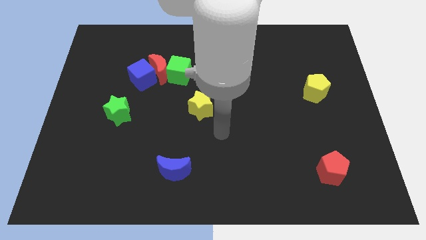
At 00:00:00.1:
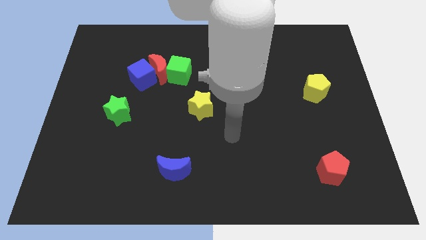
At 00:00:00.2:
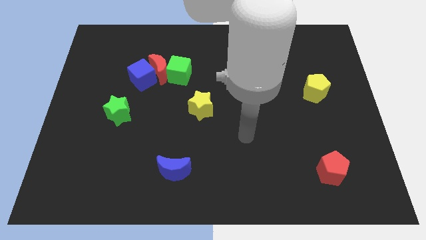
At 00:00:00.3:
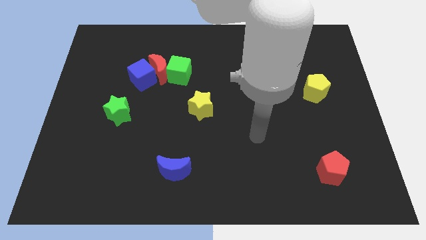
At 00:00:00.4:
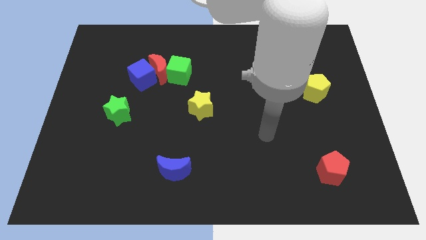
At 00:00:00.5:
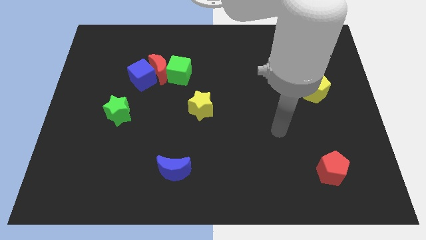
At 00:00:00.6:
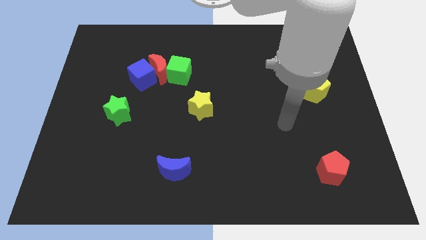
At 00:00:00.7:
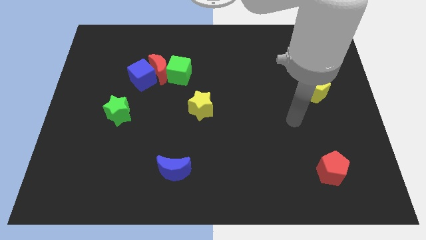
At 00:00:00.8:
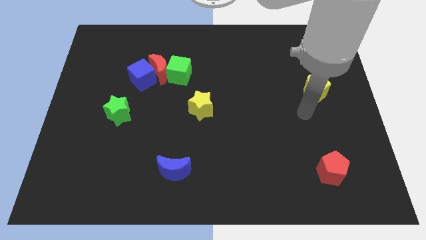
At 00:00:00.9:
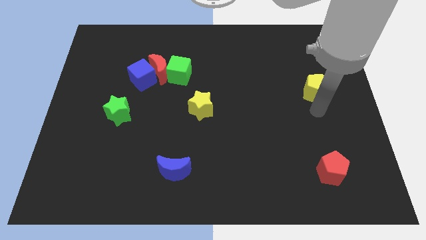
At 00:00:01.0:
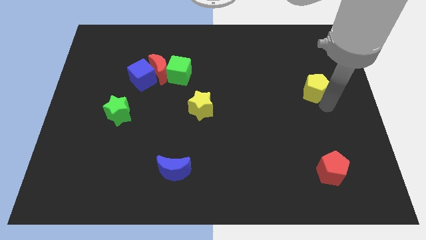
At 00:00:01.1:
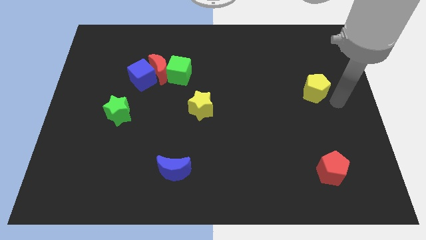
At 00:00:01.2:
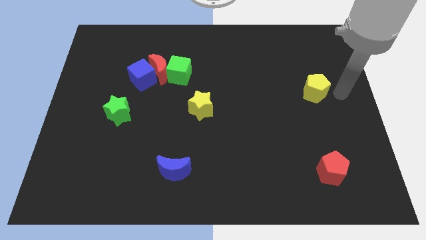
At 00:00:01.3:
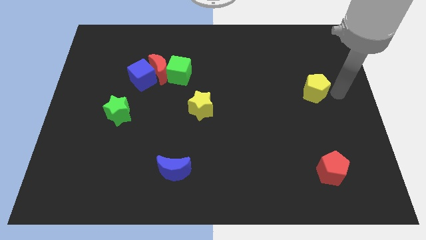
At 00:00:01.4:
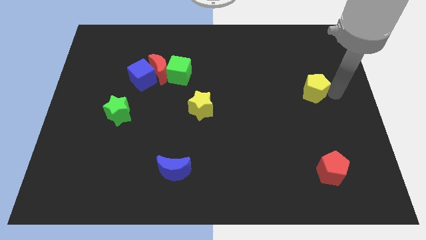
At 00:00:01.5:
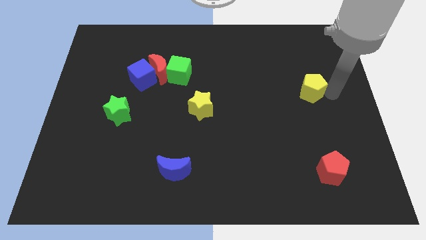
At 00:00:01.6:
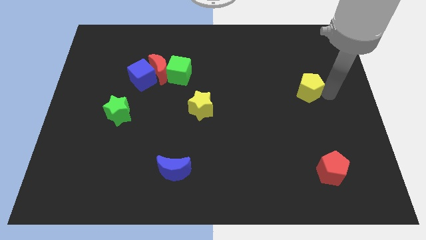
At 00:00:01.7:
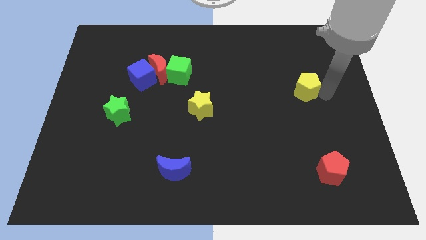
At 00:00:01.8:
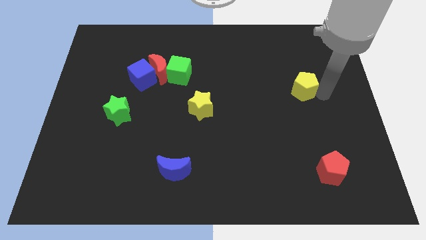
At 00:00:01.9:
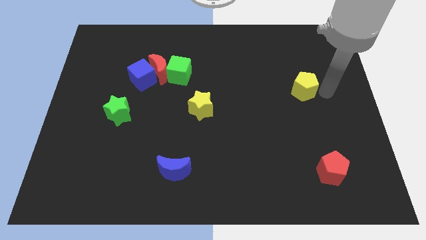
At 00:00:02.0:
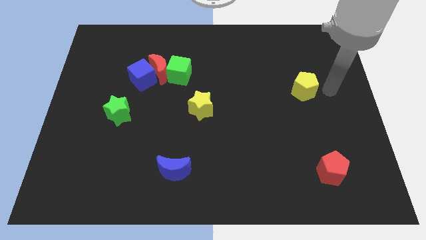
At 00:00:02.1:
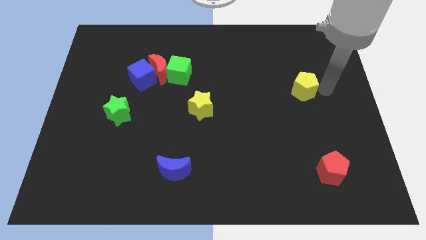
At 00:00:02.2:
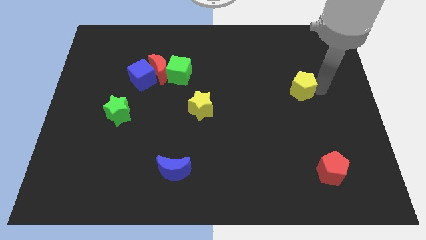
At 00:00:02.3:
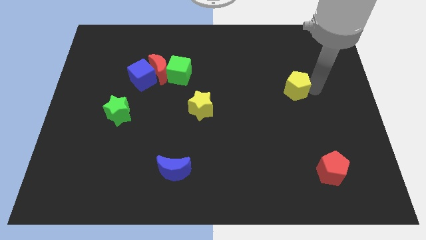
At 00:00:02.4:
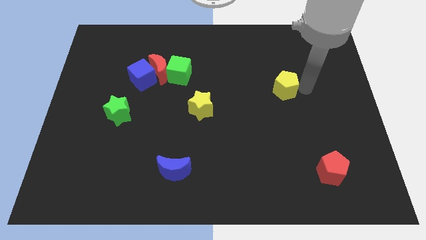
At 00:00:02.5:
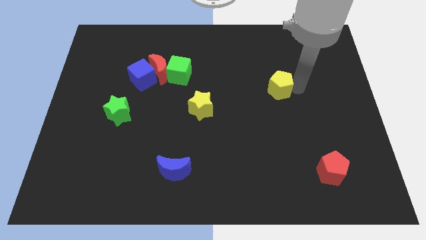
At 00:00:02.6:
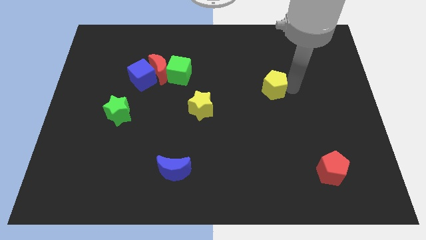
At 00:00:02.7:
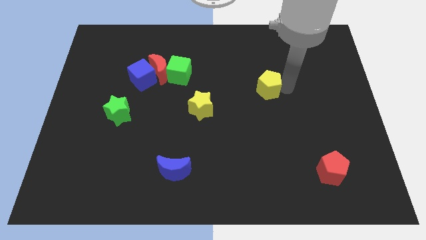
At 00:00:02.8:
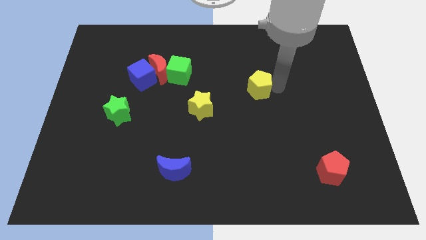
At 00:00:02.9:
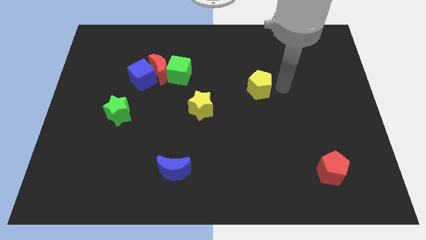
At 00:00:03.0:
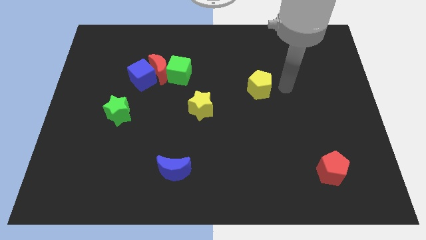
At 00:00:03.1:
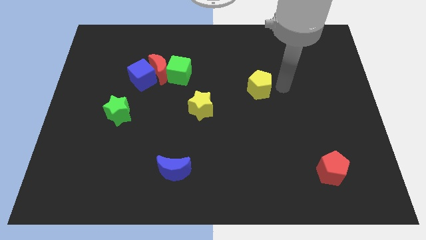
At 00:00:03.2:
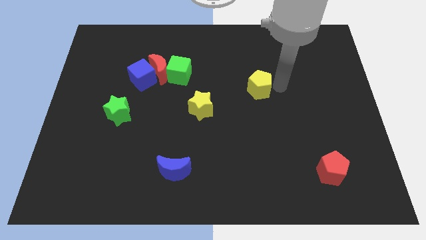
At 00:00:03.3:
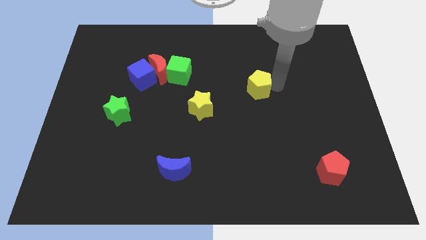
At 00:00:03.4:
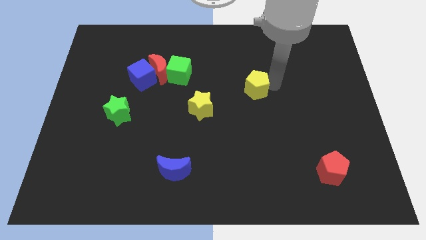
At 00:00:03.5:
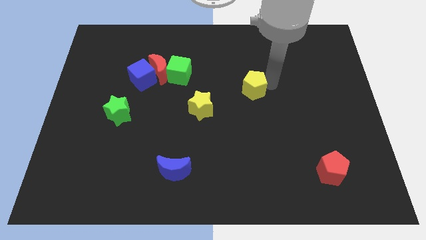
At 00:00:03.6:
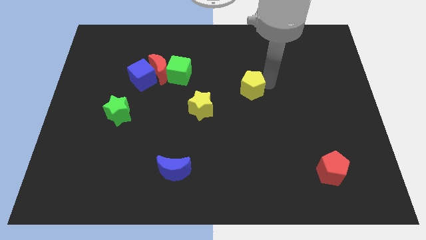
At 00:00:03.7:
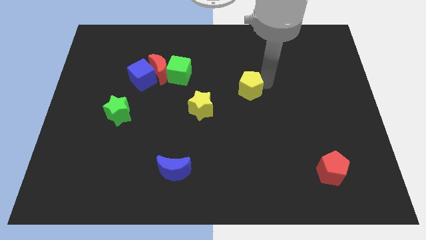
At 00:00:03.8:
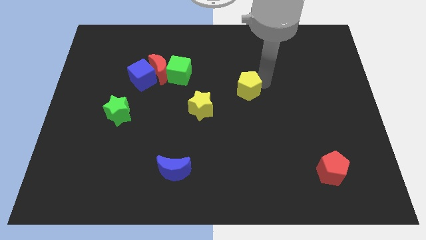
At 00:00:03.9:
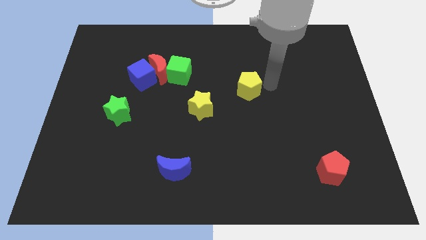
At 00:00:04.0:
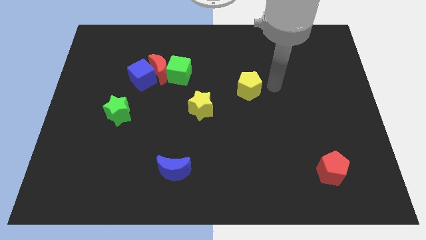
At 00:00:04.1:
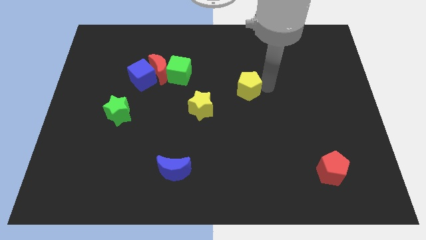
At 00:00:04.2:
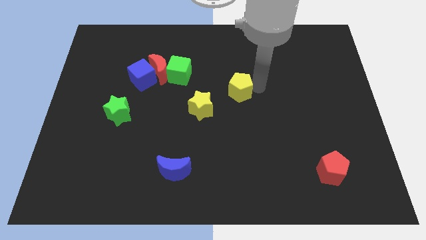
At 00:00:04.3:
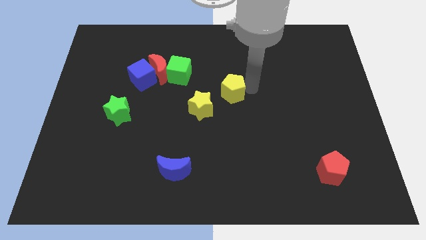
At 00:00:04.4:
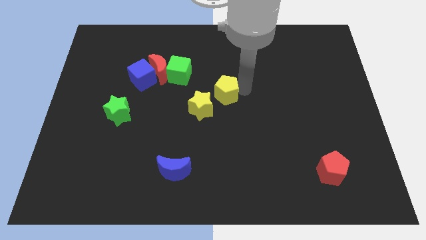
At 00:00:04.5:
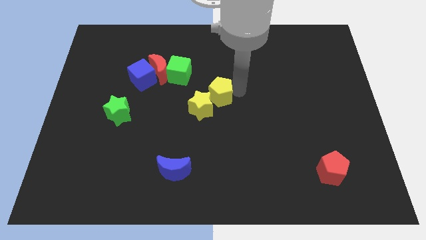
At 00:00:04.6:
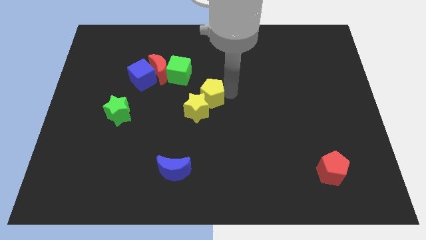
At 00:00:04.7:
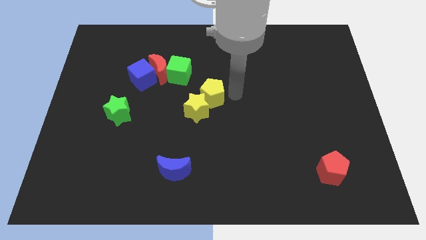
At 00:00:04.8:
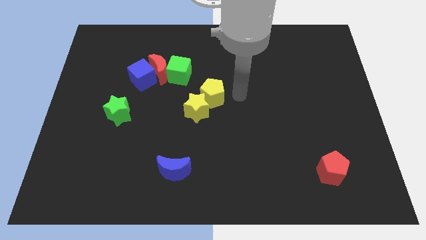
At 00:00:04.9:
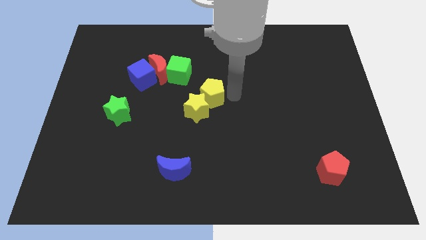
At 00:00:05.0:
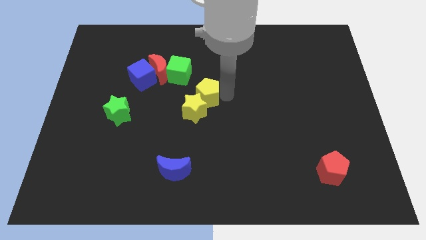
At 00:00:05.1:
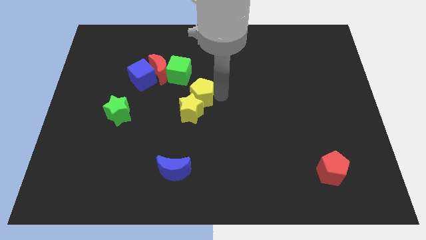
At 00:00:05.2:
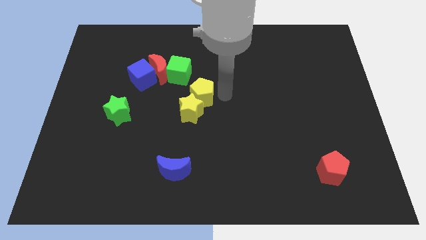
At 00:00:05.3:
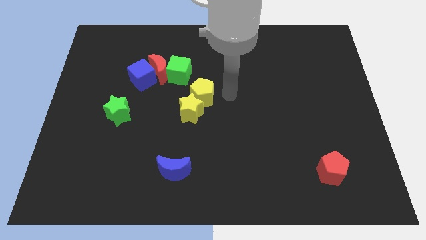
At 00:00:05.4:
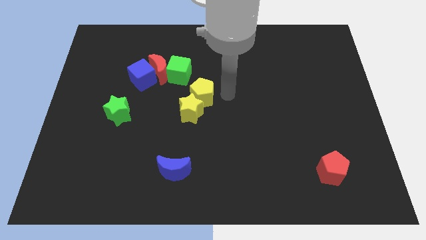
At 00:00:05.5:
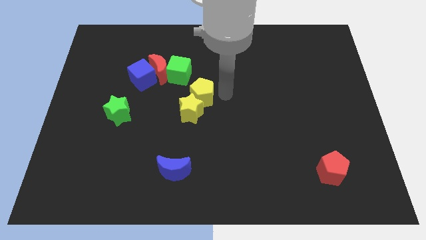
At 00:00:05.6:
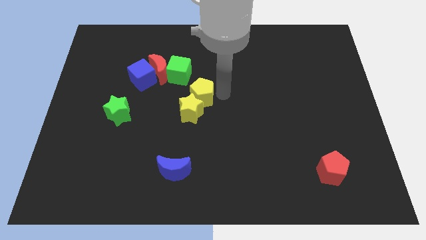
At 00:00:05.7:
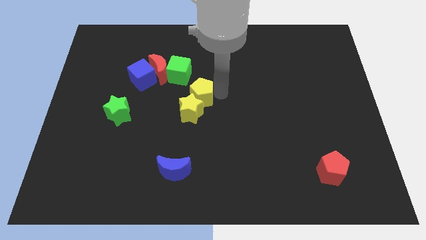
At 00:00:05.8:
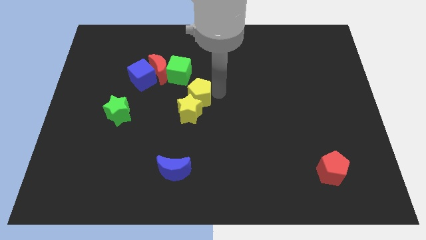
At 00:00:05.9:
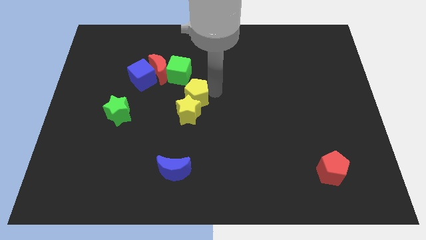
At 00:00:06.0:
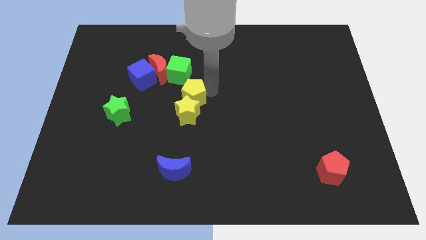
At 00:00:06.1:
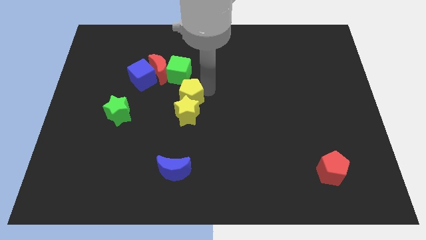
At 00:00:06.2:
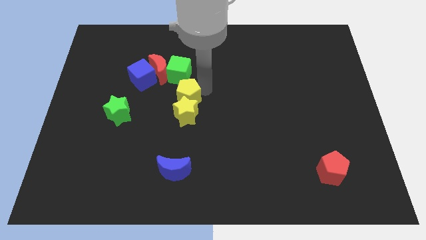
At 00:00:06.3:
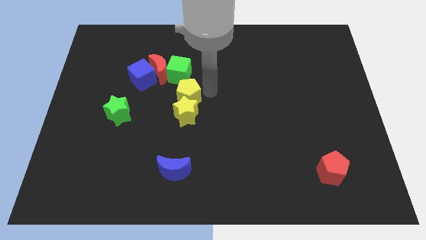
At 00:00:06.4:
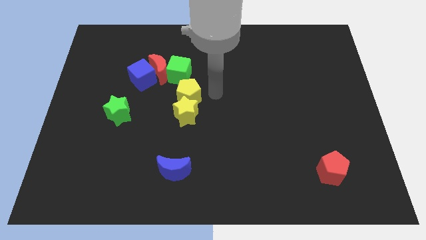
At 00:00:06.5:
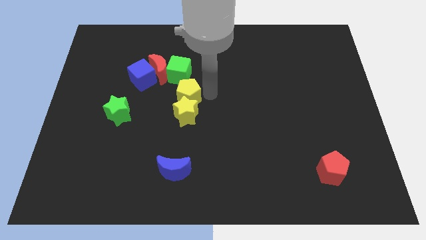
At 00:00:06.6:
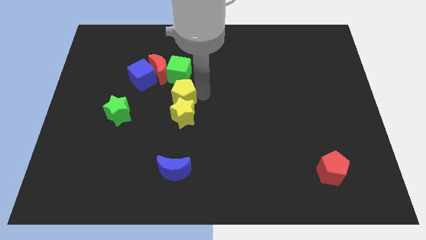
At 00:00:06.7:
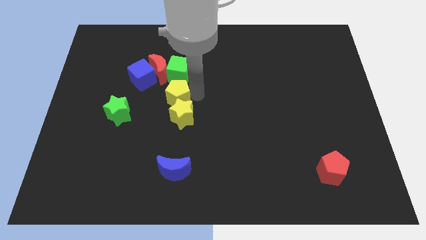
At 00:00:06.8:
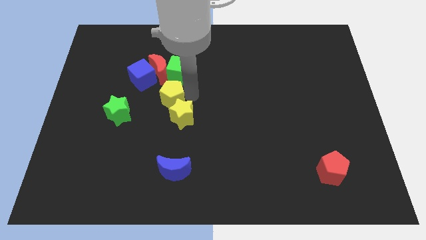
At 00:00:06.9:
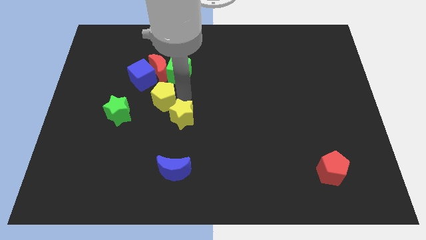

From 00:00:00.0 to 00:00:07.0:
push the yellow pentagon to the top right side of the green star

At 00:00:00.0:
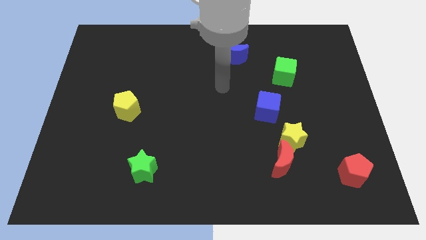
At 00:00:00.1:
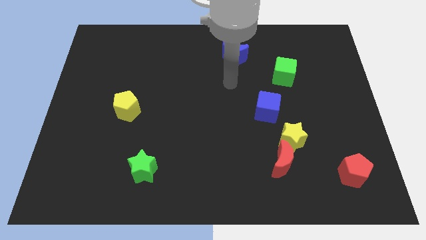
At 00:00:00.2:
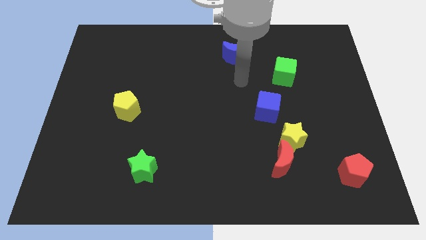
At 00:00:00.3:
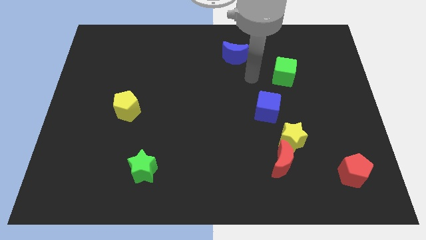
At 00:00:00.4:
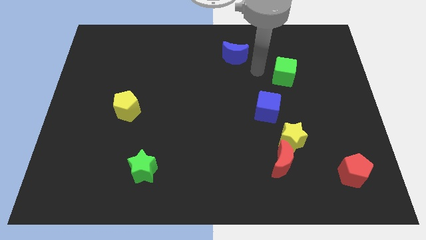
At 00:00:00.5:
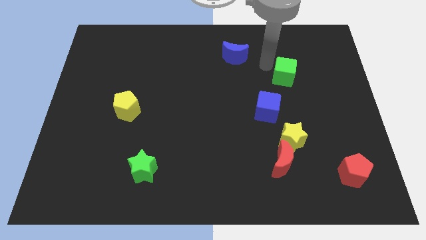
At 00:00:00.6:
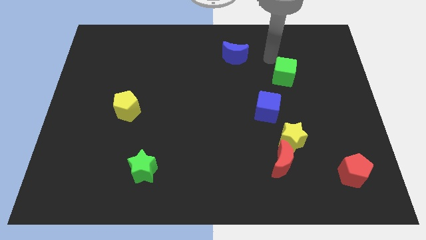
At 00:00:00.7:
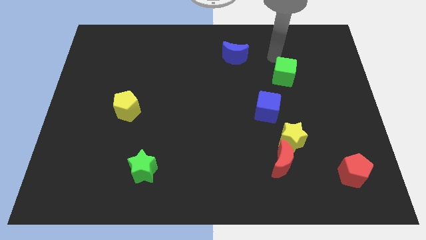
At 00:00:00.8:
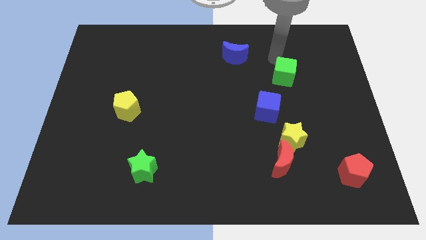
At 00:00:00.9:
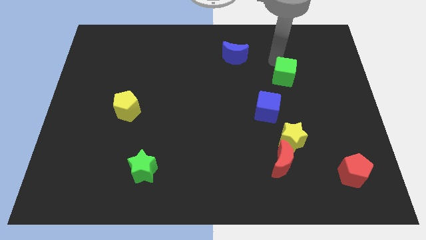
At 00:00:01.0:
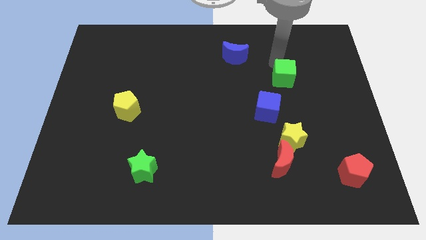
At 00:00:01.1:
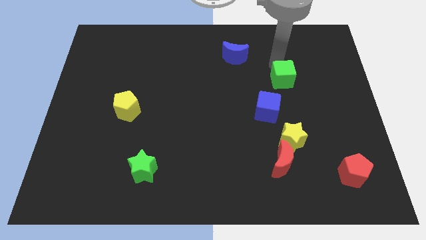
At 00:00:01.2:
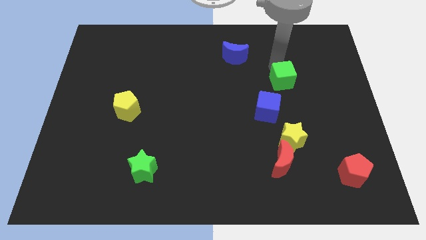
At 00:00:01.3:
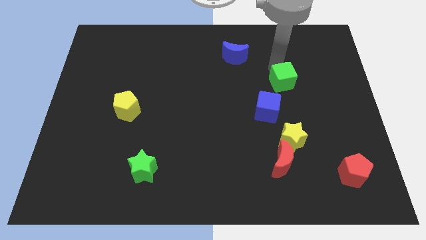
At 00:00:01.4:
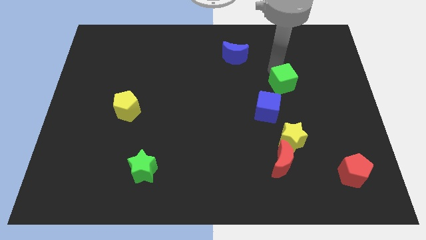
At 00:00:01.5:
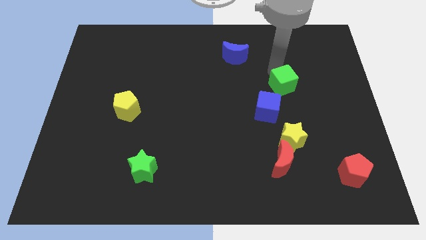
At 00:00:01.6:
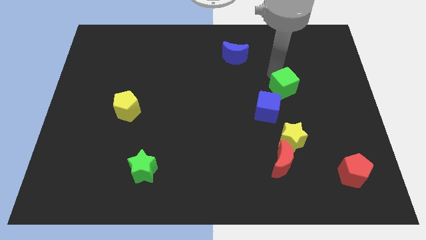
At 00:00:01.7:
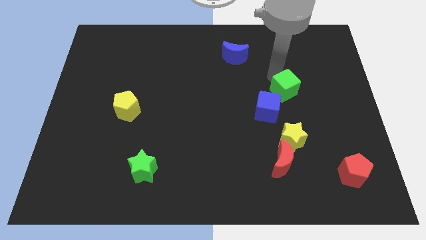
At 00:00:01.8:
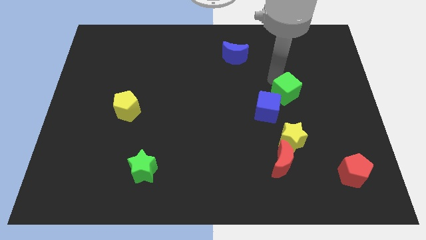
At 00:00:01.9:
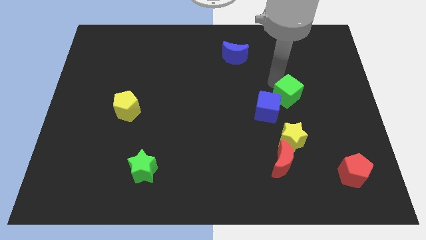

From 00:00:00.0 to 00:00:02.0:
slide the green cube to the right side of the blue cube
